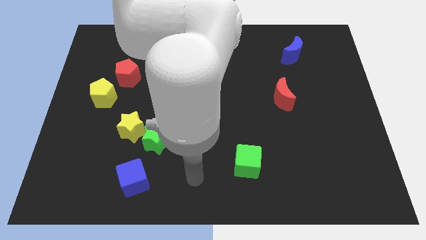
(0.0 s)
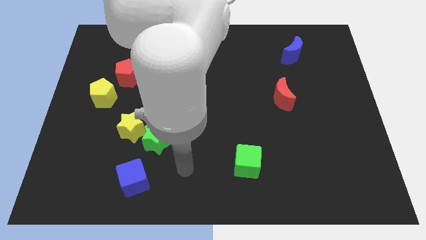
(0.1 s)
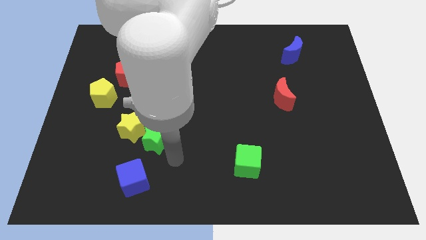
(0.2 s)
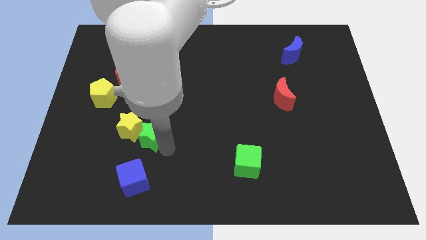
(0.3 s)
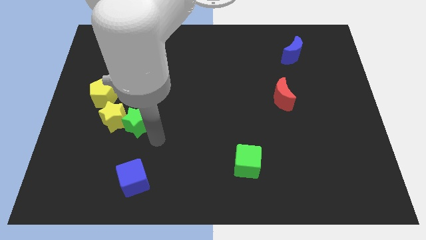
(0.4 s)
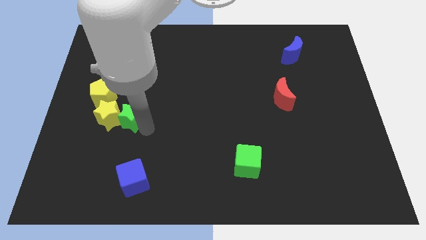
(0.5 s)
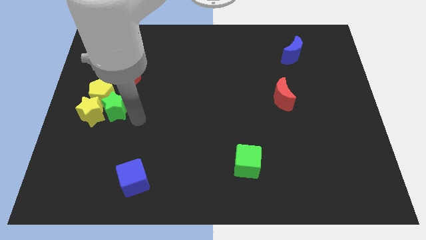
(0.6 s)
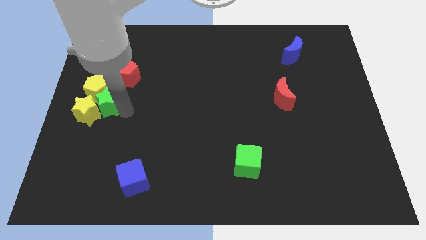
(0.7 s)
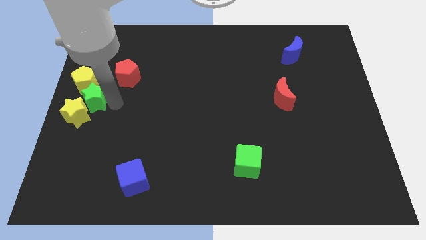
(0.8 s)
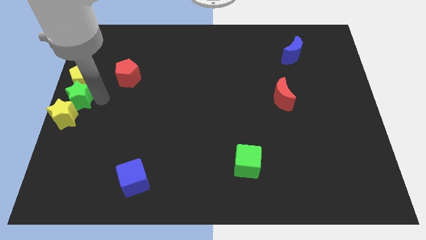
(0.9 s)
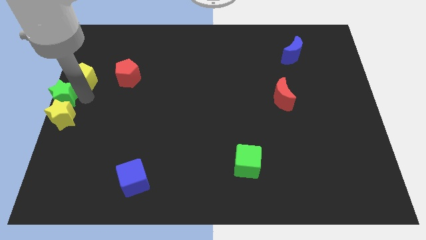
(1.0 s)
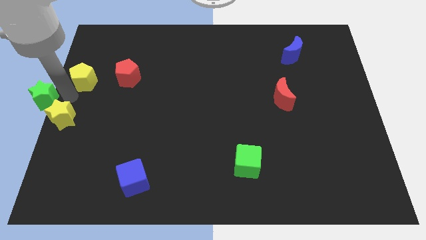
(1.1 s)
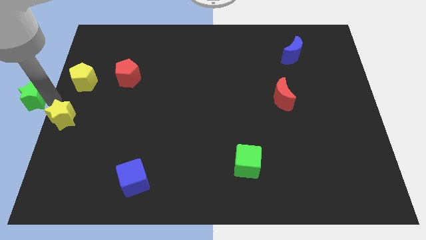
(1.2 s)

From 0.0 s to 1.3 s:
separate the yellow star from the green star

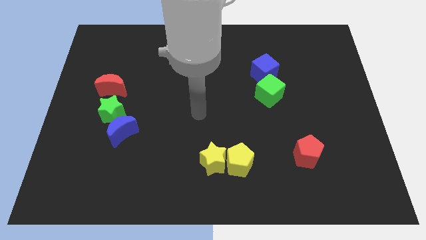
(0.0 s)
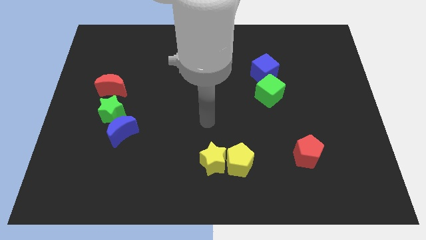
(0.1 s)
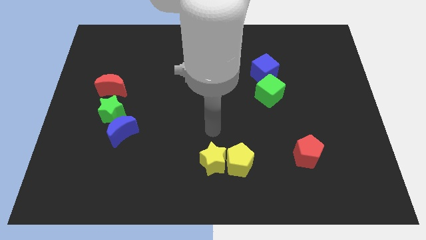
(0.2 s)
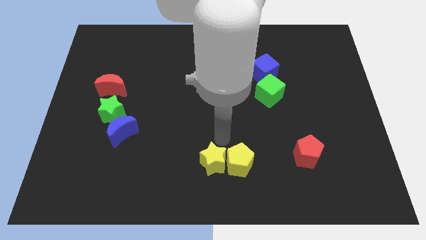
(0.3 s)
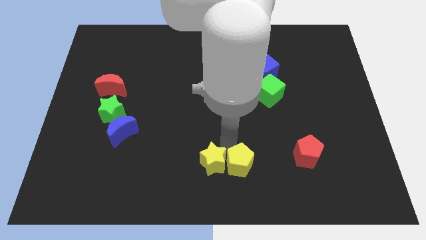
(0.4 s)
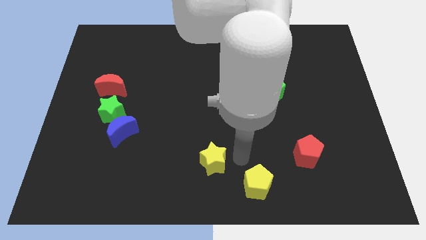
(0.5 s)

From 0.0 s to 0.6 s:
separate the yellow star from the yellow pentagon

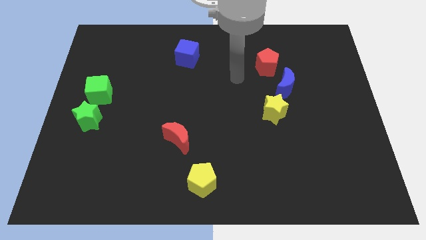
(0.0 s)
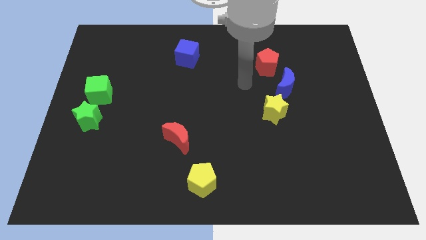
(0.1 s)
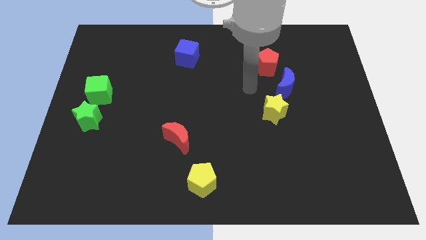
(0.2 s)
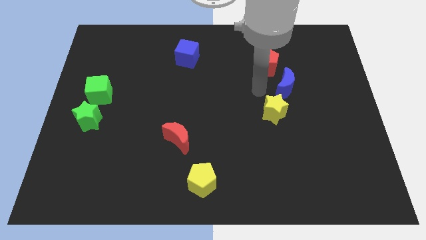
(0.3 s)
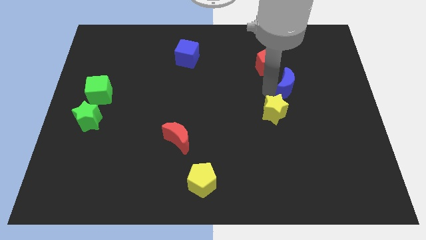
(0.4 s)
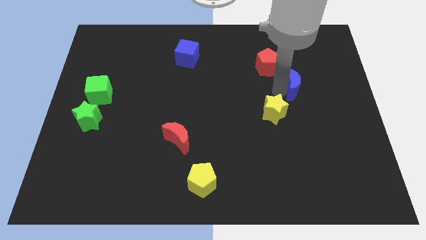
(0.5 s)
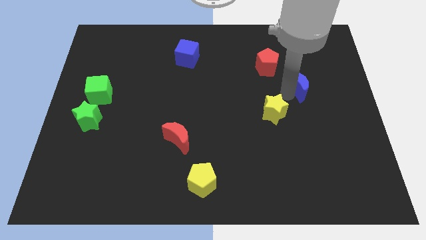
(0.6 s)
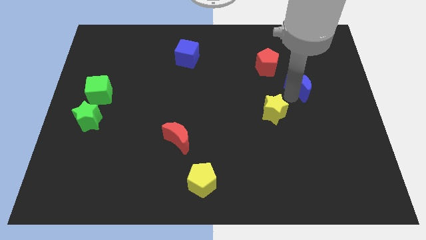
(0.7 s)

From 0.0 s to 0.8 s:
pull the yellow star apart from the blue moon

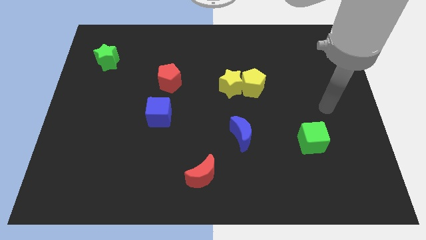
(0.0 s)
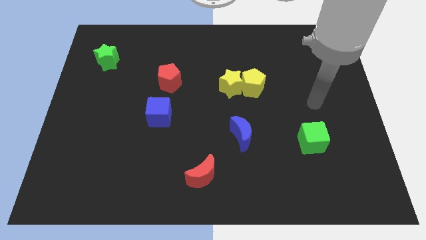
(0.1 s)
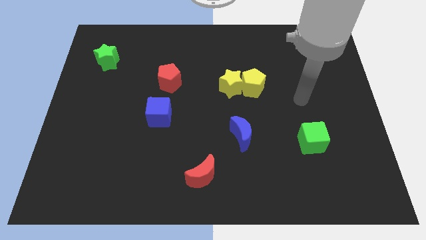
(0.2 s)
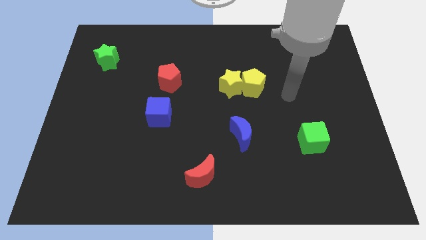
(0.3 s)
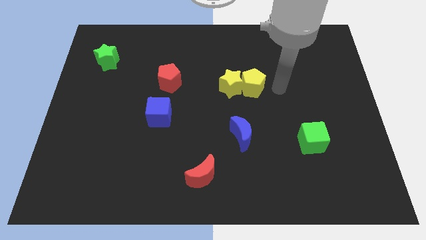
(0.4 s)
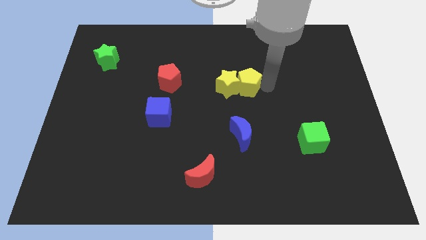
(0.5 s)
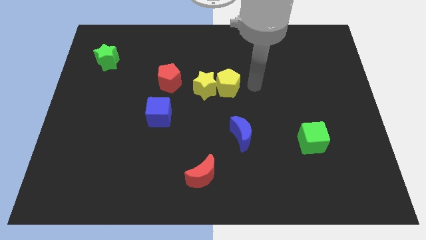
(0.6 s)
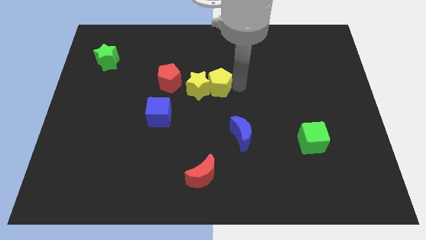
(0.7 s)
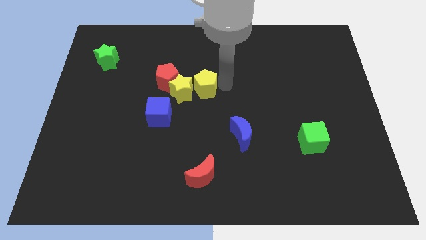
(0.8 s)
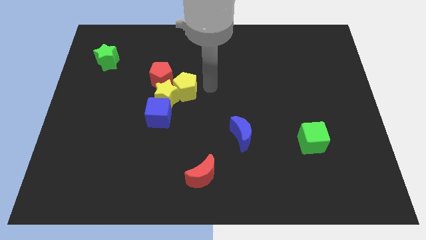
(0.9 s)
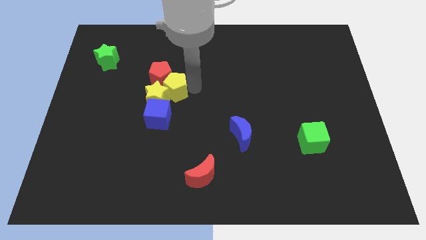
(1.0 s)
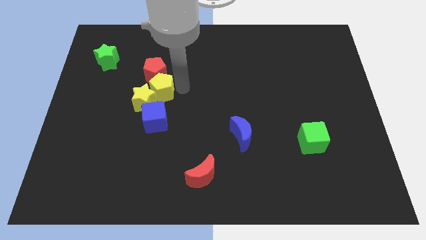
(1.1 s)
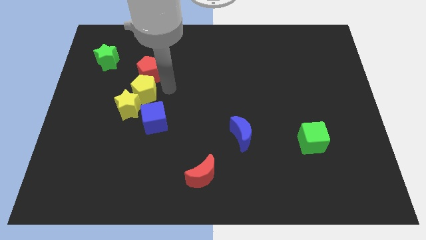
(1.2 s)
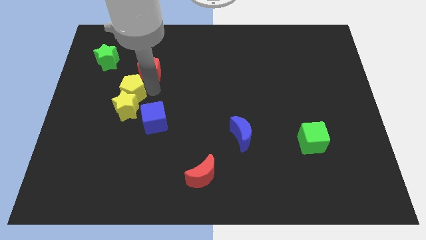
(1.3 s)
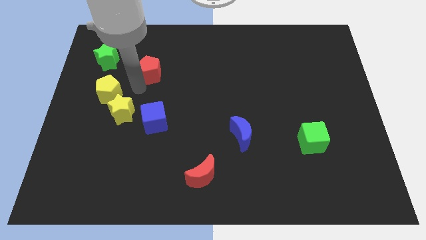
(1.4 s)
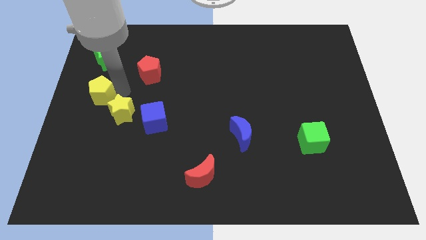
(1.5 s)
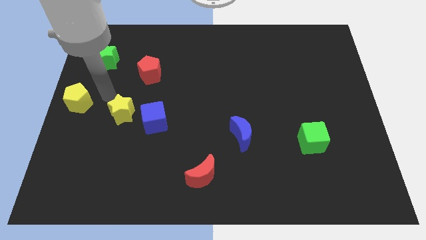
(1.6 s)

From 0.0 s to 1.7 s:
pull the yellow star apart from the yellow pentagon

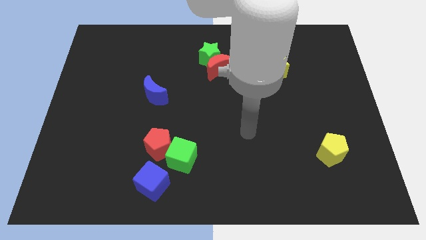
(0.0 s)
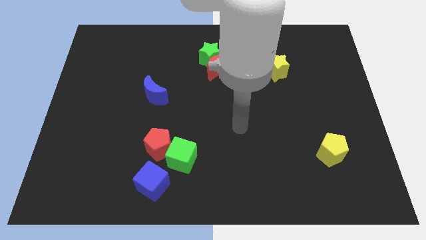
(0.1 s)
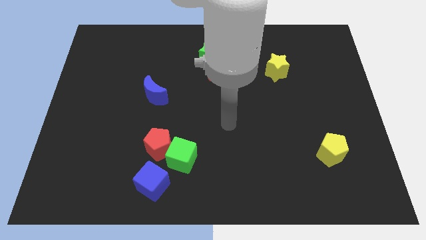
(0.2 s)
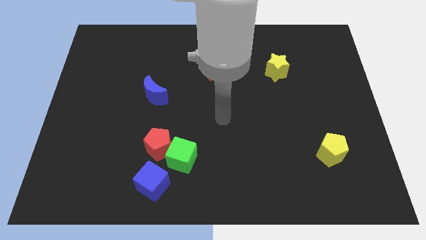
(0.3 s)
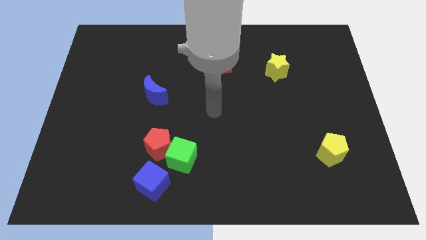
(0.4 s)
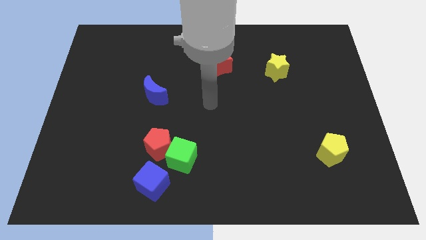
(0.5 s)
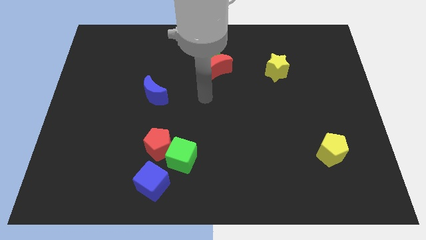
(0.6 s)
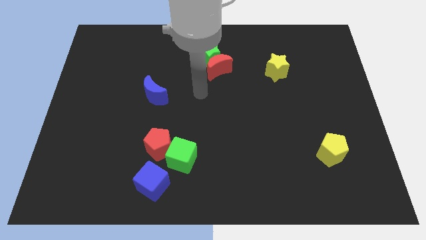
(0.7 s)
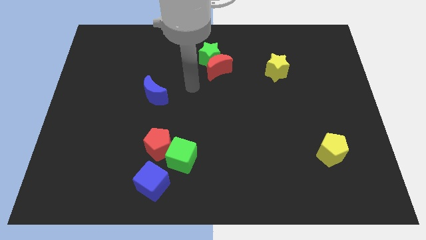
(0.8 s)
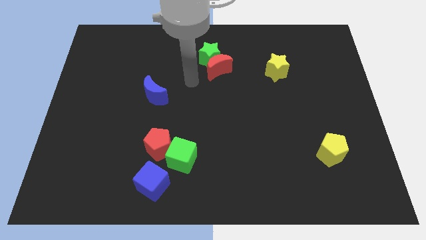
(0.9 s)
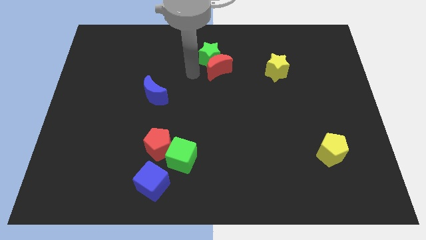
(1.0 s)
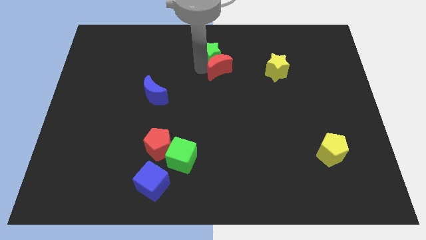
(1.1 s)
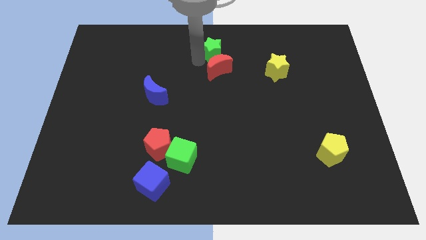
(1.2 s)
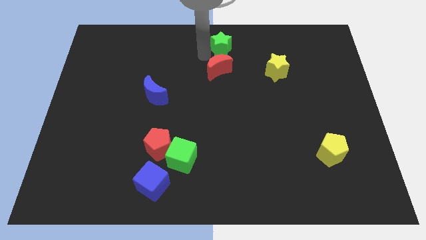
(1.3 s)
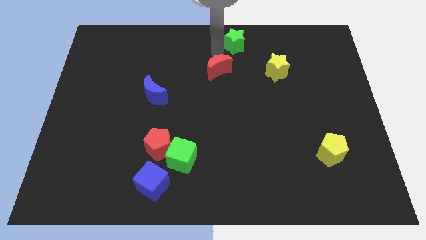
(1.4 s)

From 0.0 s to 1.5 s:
separate the red moon from the green star

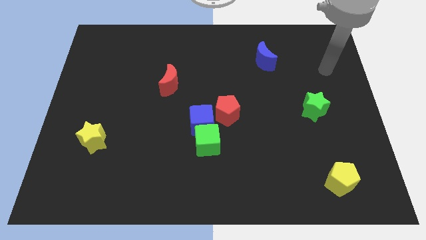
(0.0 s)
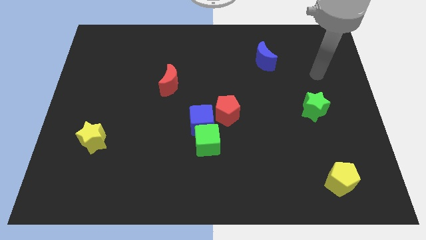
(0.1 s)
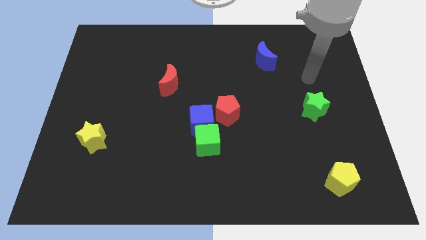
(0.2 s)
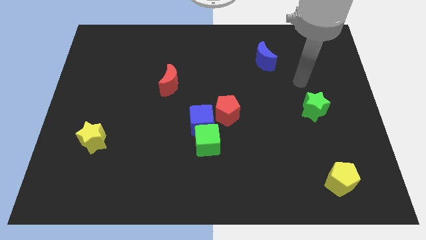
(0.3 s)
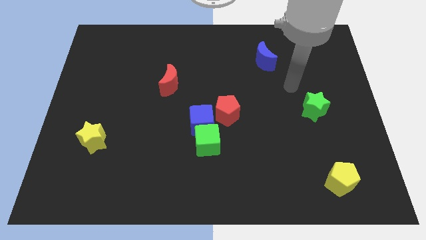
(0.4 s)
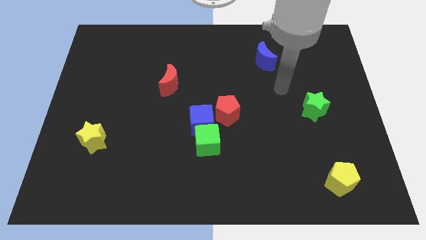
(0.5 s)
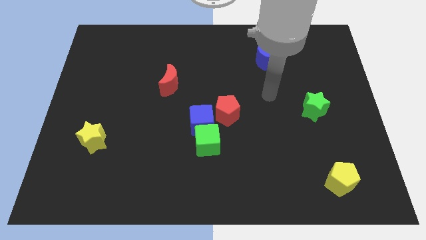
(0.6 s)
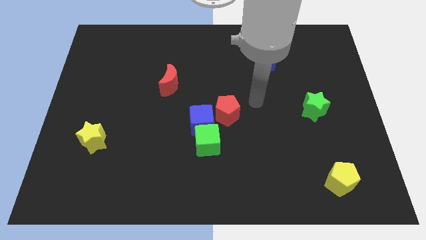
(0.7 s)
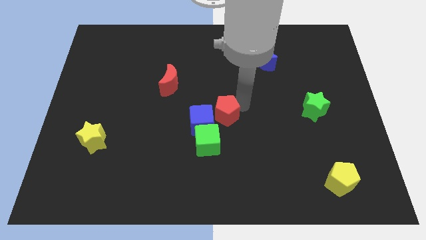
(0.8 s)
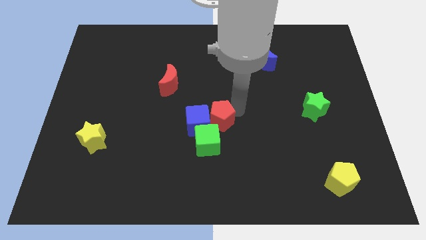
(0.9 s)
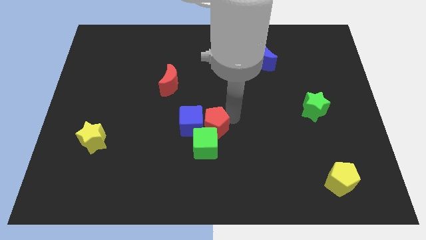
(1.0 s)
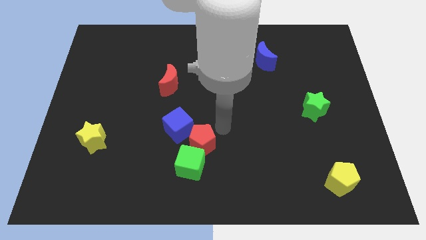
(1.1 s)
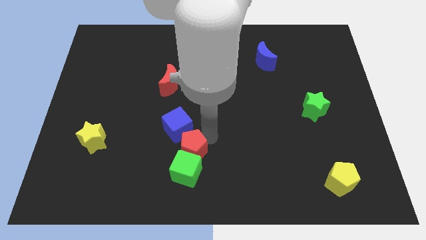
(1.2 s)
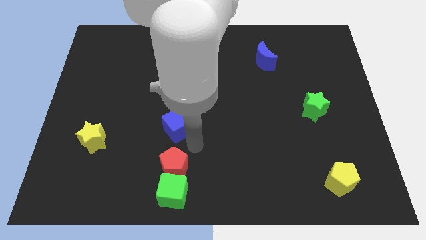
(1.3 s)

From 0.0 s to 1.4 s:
separate the blue cube from the green cube and red pentagon

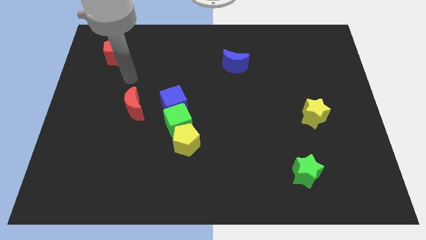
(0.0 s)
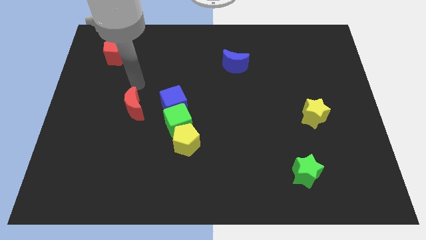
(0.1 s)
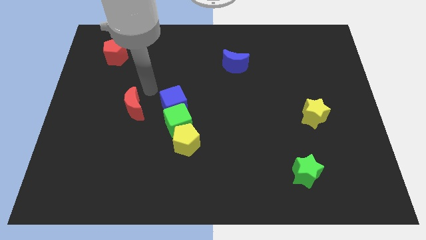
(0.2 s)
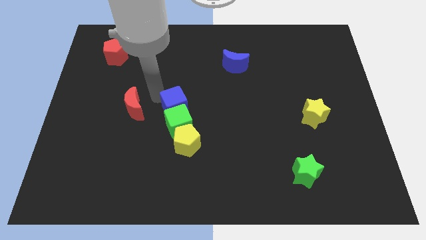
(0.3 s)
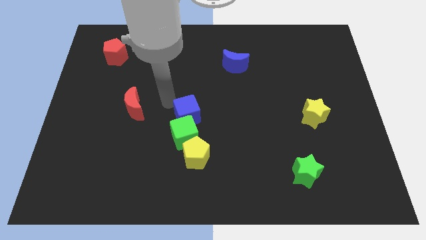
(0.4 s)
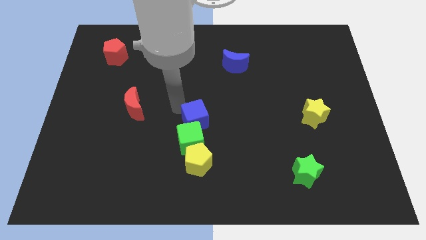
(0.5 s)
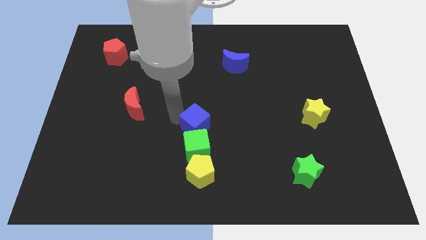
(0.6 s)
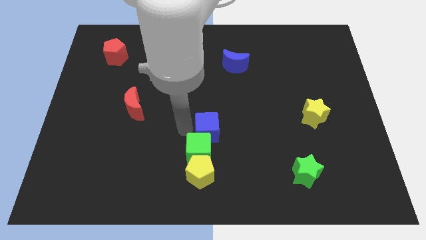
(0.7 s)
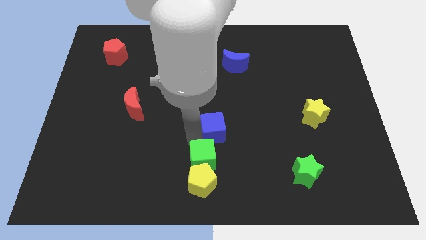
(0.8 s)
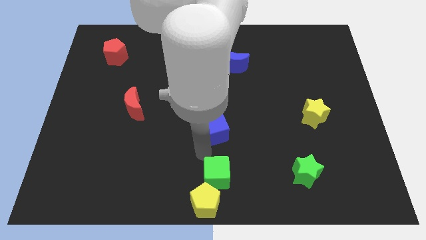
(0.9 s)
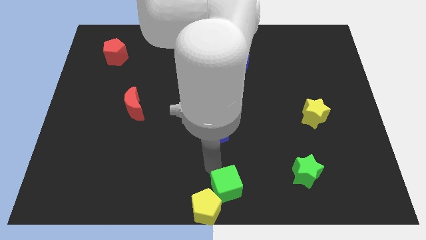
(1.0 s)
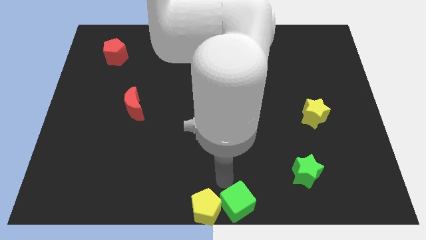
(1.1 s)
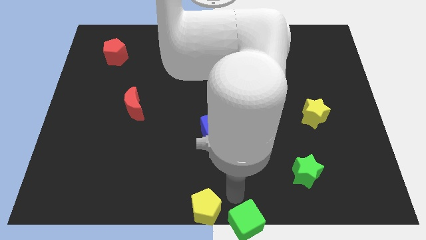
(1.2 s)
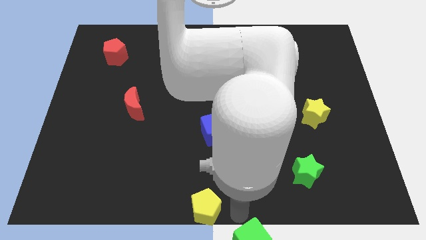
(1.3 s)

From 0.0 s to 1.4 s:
move the yellow pentagon away from the green cube

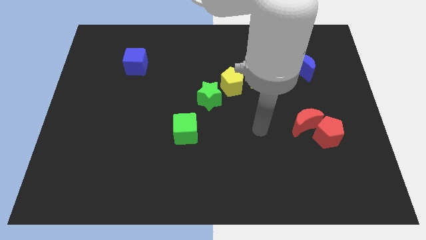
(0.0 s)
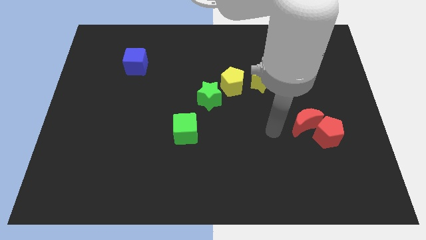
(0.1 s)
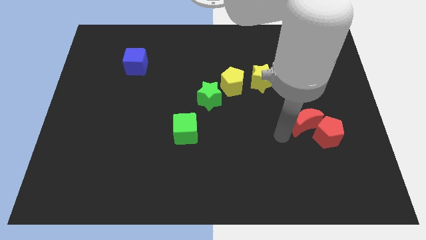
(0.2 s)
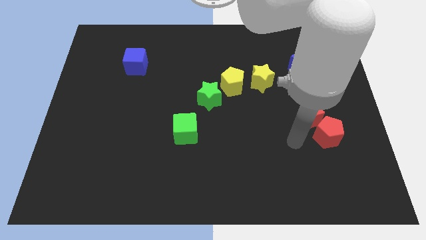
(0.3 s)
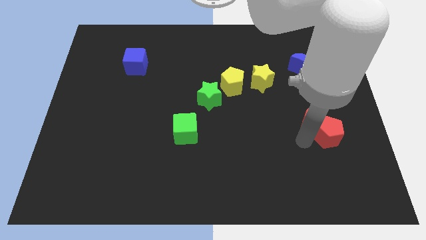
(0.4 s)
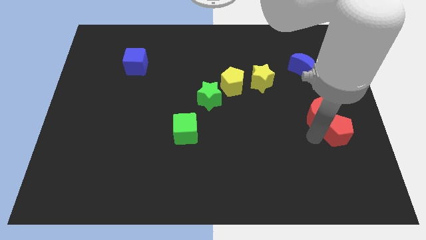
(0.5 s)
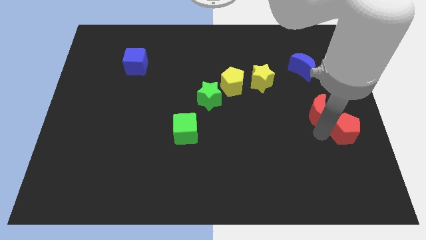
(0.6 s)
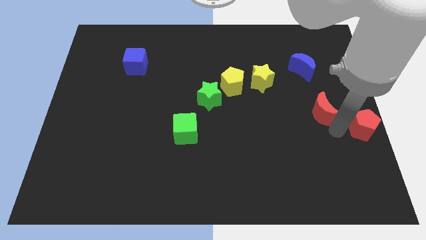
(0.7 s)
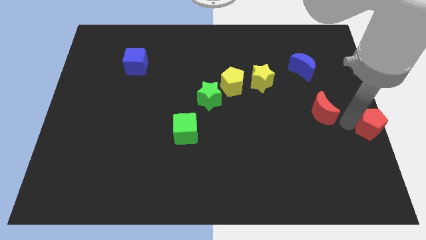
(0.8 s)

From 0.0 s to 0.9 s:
separate the red moon from the red pentagon
